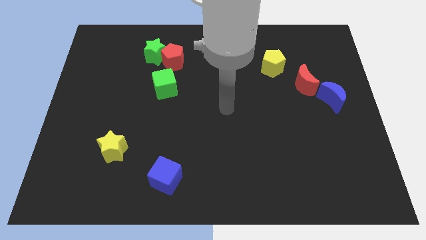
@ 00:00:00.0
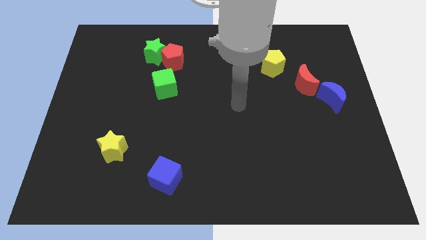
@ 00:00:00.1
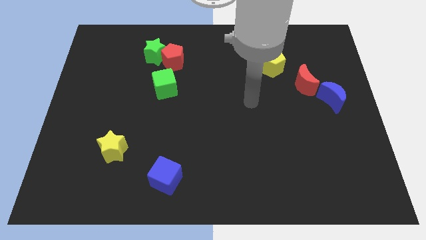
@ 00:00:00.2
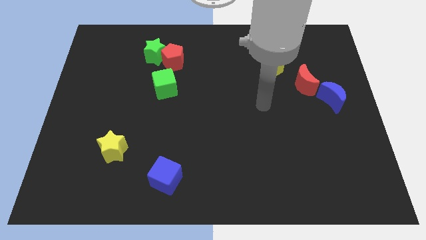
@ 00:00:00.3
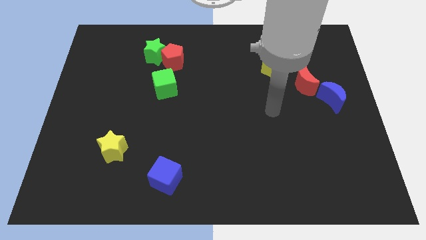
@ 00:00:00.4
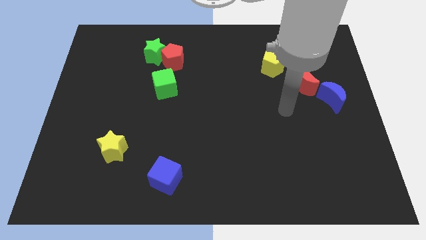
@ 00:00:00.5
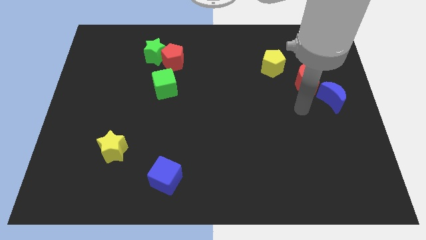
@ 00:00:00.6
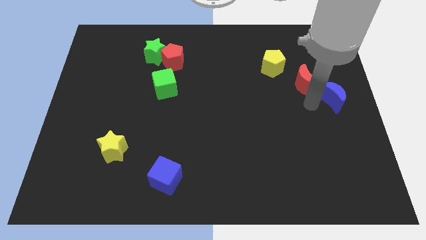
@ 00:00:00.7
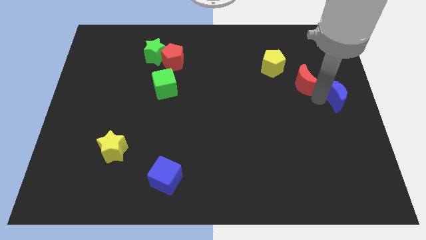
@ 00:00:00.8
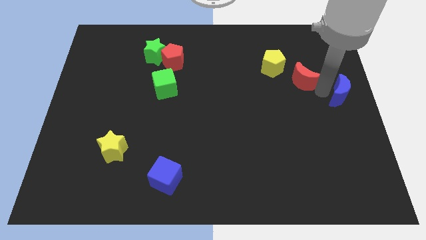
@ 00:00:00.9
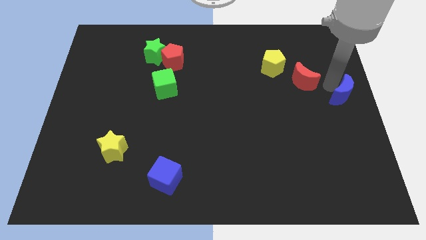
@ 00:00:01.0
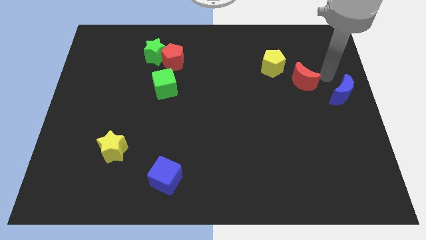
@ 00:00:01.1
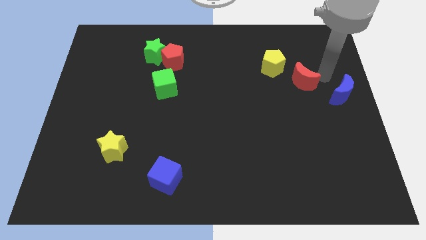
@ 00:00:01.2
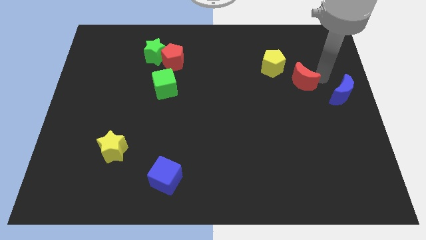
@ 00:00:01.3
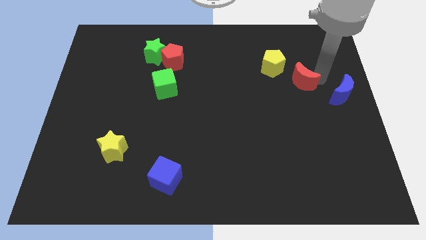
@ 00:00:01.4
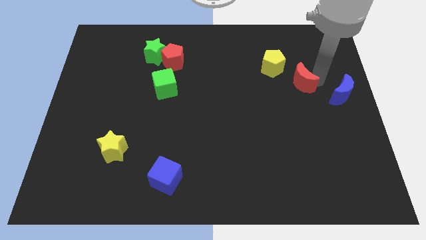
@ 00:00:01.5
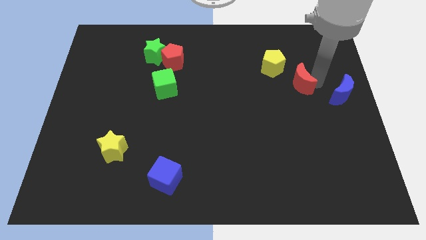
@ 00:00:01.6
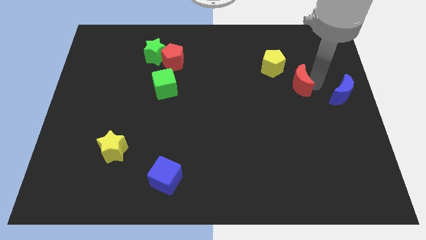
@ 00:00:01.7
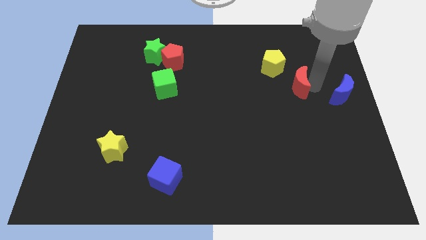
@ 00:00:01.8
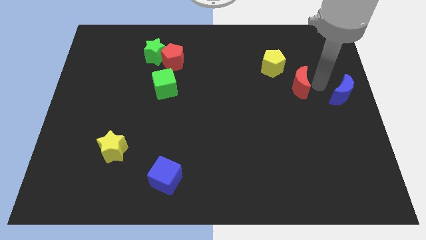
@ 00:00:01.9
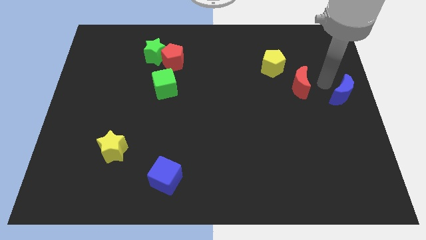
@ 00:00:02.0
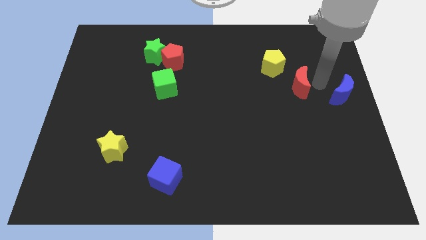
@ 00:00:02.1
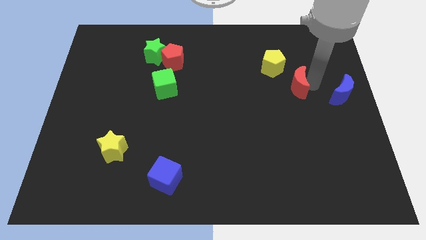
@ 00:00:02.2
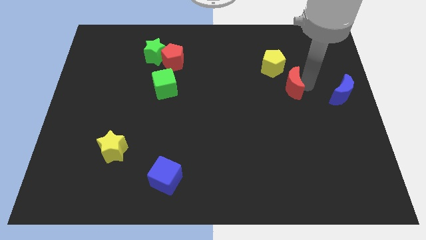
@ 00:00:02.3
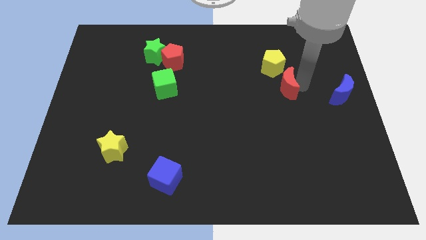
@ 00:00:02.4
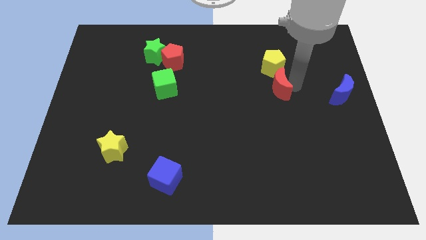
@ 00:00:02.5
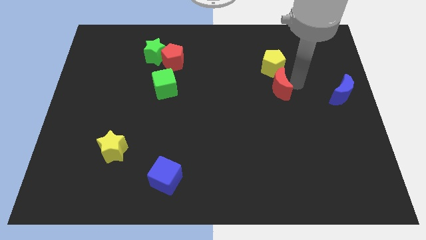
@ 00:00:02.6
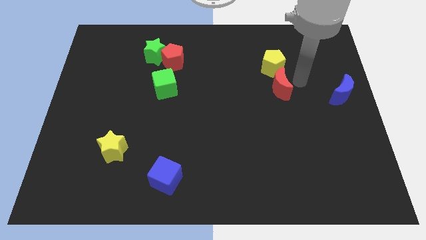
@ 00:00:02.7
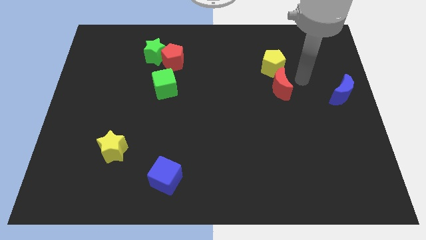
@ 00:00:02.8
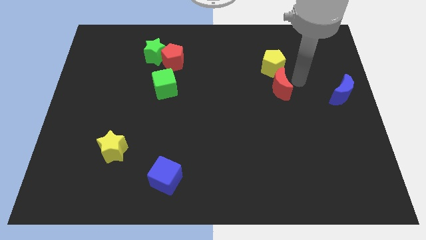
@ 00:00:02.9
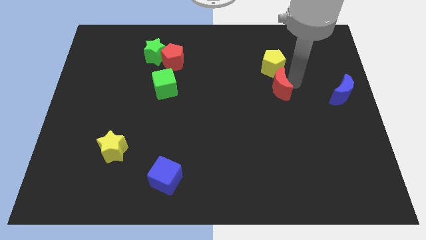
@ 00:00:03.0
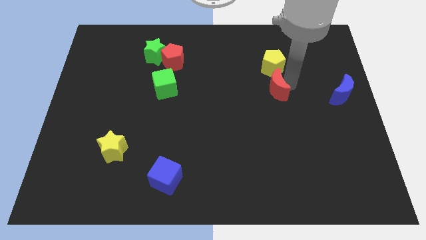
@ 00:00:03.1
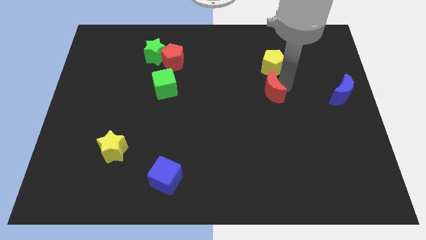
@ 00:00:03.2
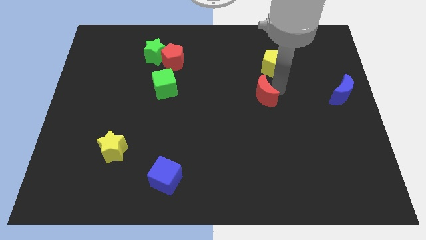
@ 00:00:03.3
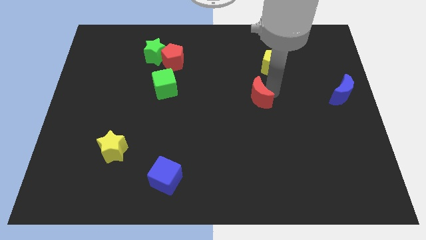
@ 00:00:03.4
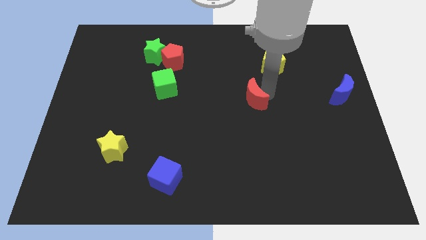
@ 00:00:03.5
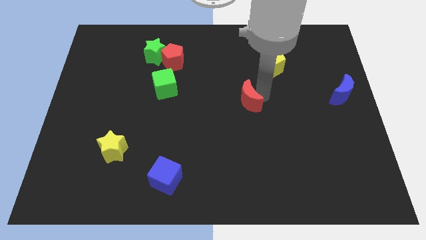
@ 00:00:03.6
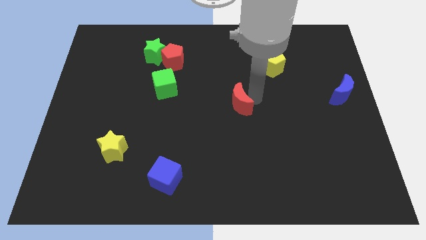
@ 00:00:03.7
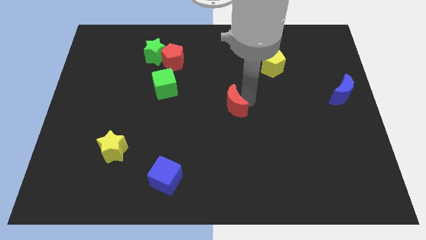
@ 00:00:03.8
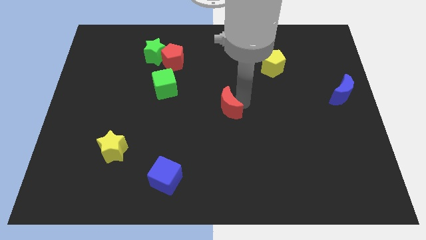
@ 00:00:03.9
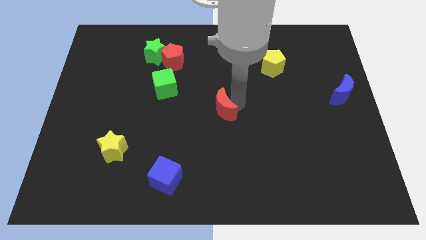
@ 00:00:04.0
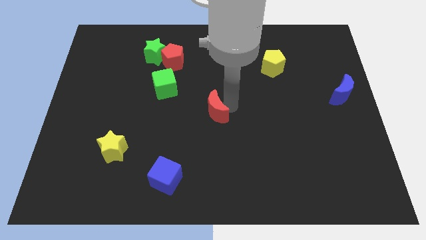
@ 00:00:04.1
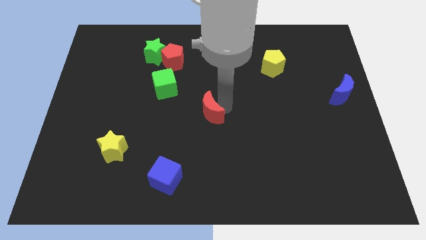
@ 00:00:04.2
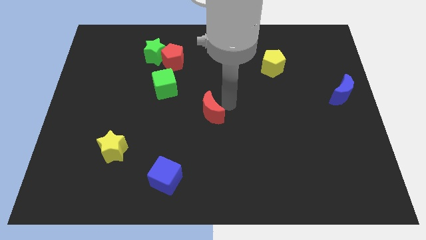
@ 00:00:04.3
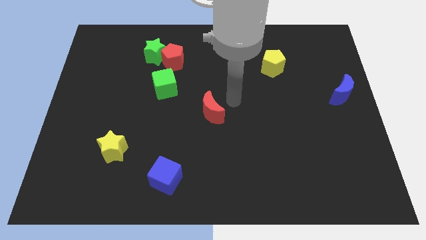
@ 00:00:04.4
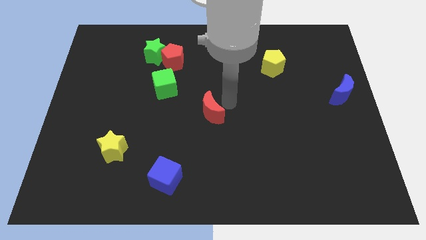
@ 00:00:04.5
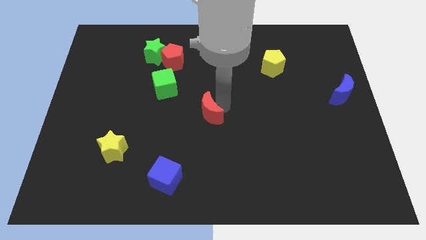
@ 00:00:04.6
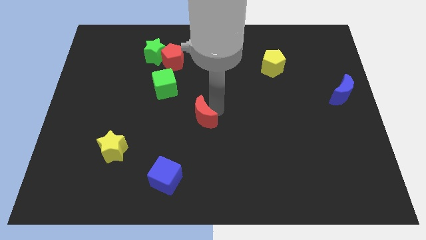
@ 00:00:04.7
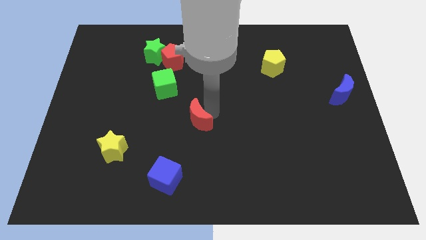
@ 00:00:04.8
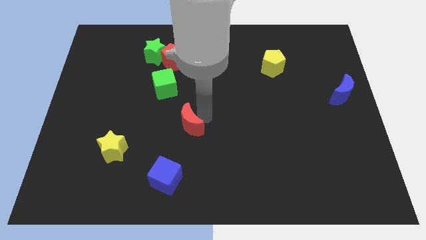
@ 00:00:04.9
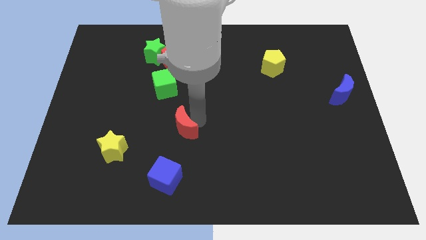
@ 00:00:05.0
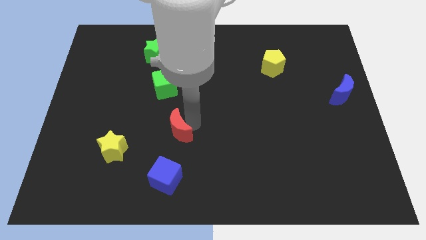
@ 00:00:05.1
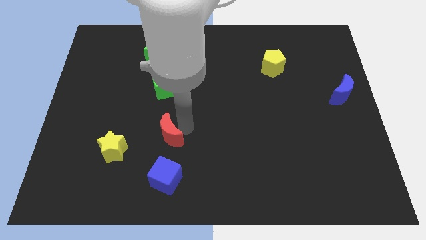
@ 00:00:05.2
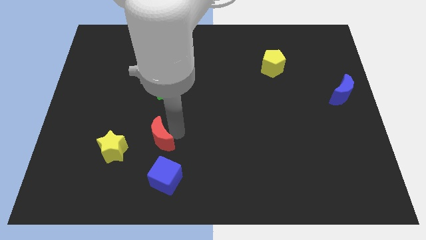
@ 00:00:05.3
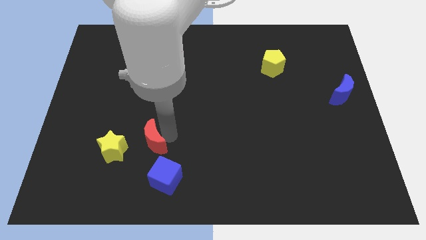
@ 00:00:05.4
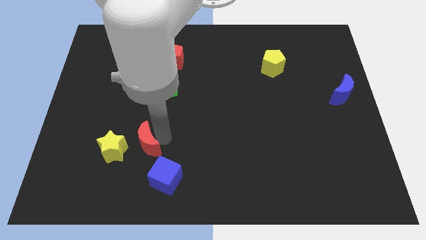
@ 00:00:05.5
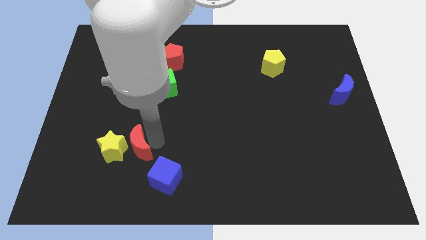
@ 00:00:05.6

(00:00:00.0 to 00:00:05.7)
push the red moon towards the yellow star

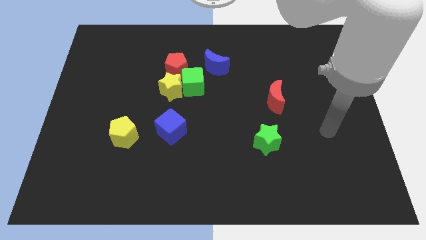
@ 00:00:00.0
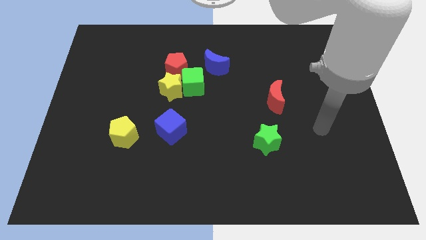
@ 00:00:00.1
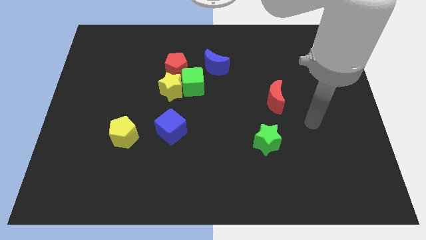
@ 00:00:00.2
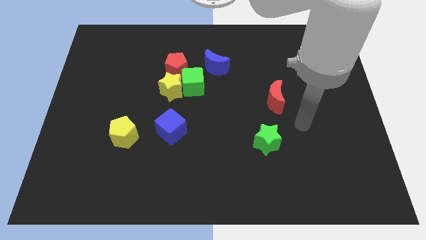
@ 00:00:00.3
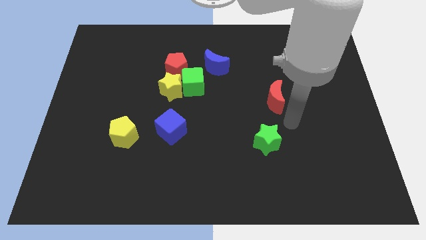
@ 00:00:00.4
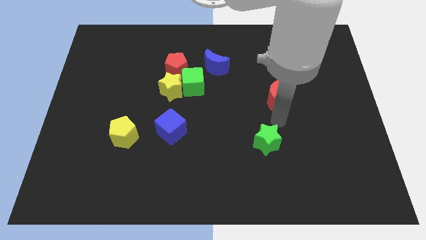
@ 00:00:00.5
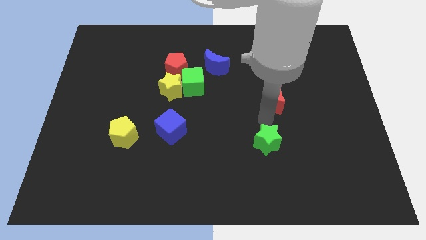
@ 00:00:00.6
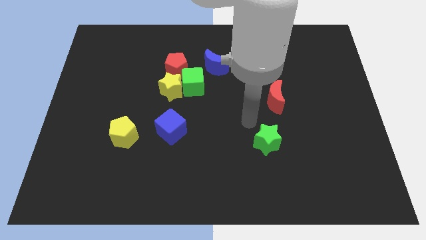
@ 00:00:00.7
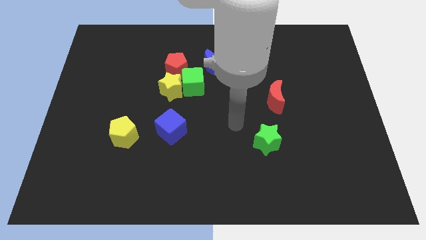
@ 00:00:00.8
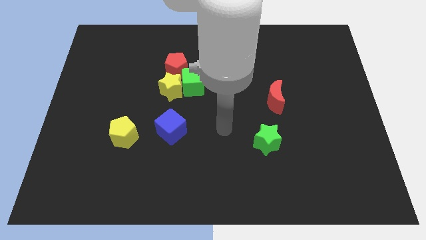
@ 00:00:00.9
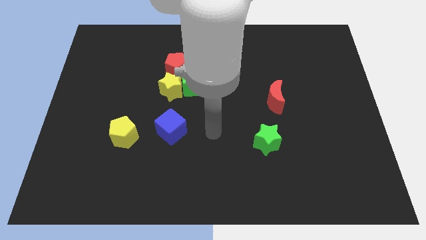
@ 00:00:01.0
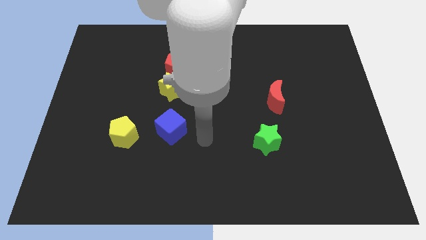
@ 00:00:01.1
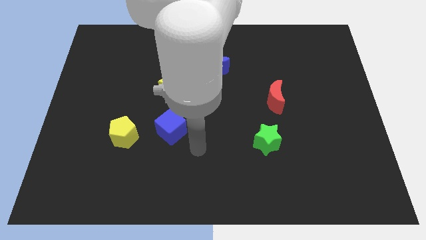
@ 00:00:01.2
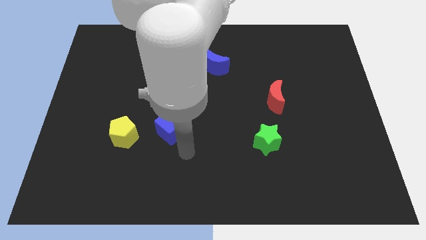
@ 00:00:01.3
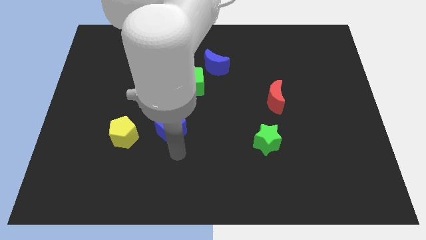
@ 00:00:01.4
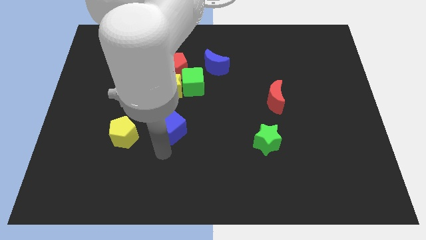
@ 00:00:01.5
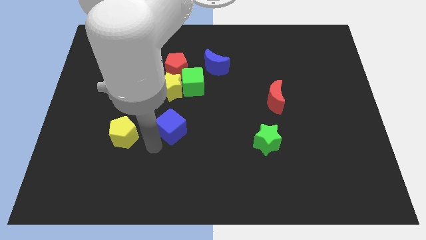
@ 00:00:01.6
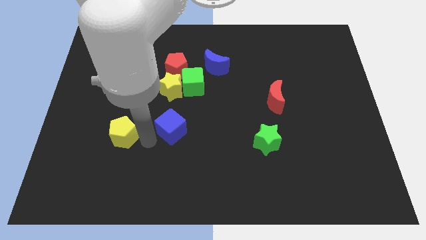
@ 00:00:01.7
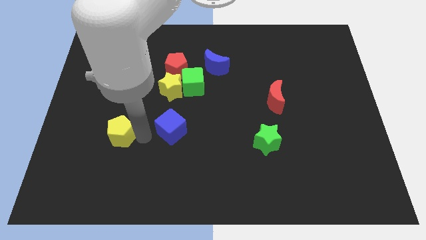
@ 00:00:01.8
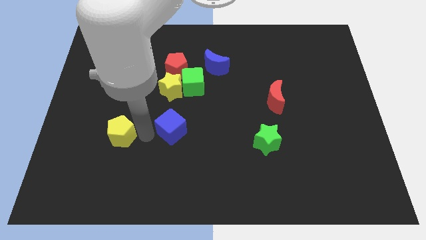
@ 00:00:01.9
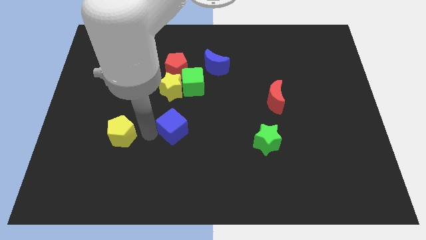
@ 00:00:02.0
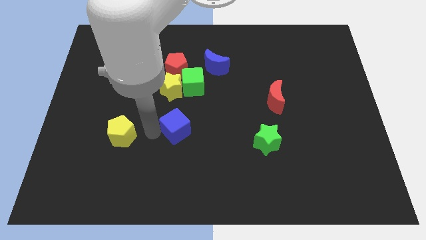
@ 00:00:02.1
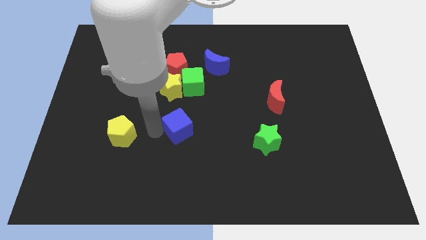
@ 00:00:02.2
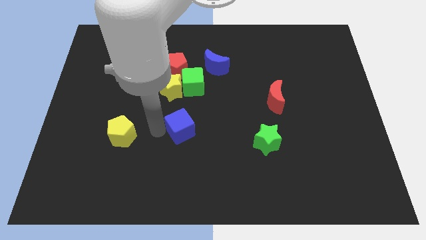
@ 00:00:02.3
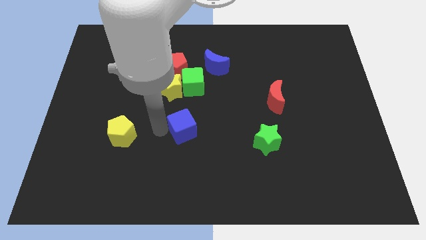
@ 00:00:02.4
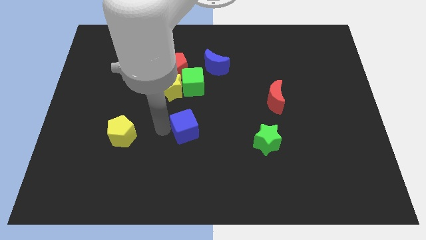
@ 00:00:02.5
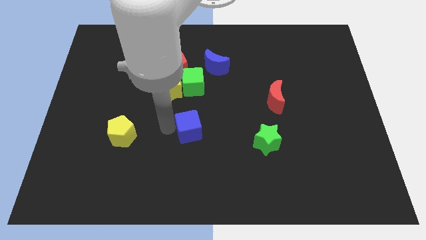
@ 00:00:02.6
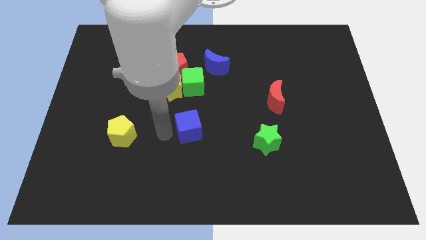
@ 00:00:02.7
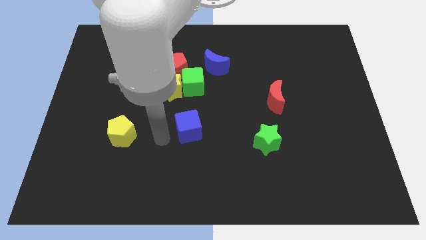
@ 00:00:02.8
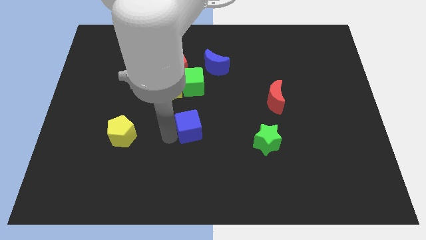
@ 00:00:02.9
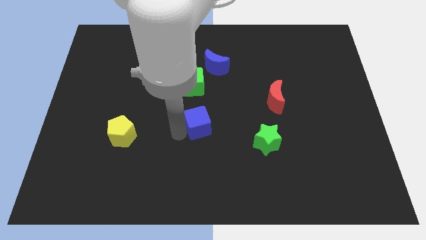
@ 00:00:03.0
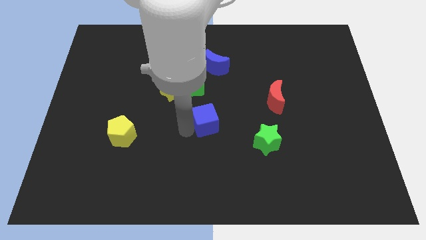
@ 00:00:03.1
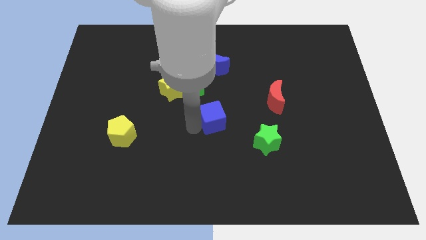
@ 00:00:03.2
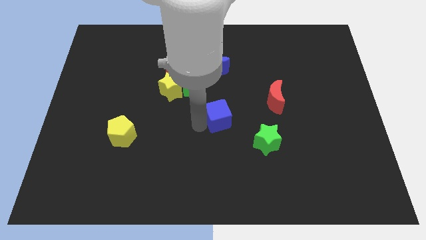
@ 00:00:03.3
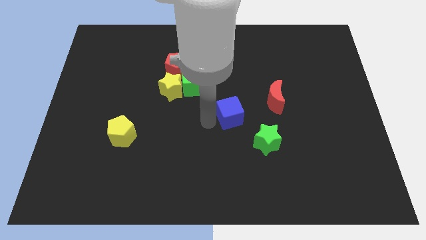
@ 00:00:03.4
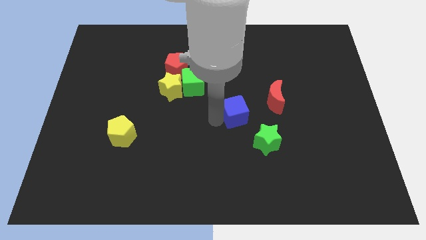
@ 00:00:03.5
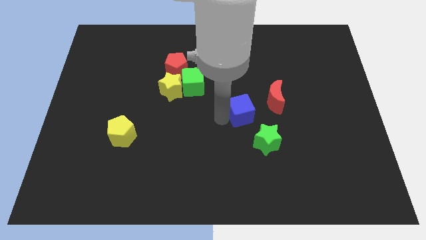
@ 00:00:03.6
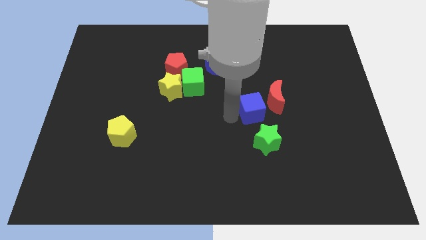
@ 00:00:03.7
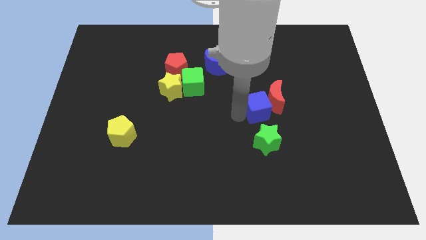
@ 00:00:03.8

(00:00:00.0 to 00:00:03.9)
slide the blue cube next to the red moon
